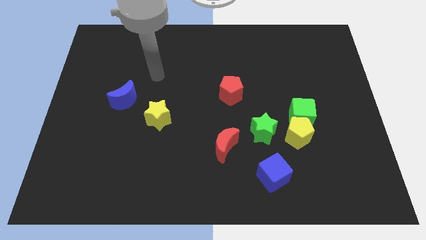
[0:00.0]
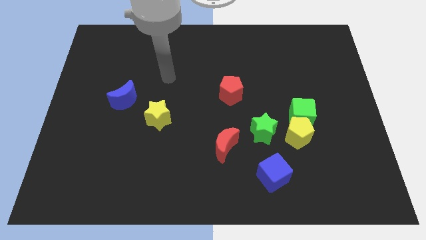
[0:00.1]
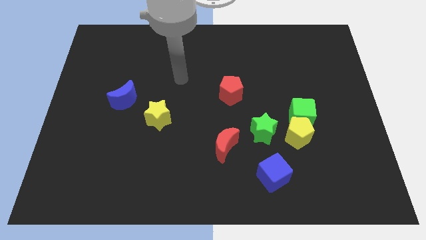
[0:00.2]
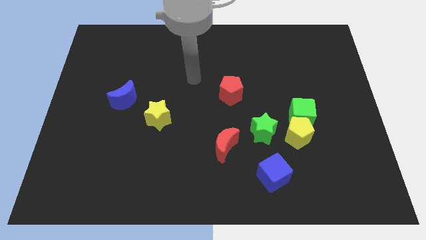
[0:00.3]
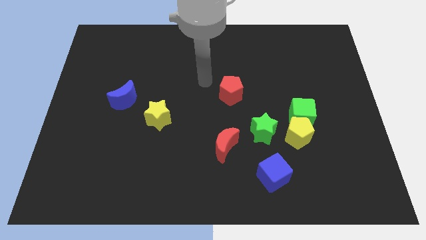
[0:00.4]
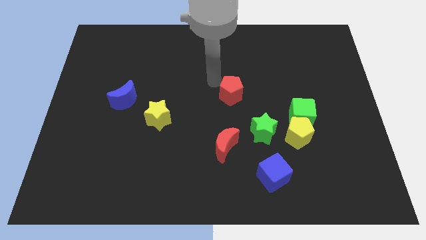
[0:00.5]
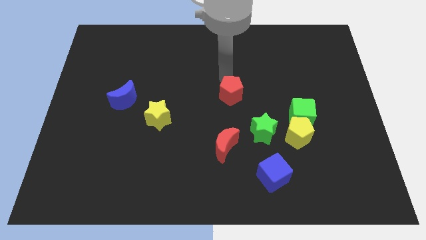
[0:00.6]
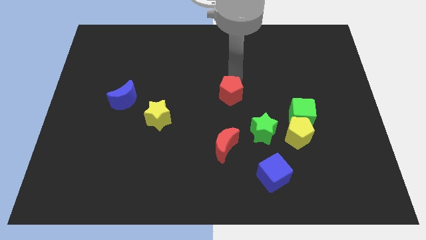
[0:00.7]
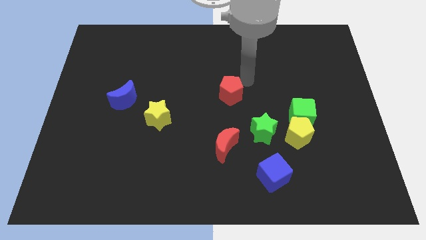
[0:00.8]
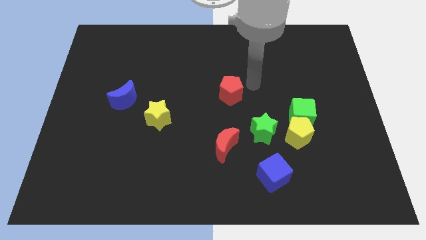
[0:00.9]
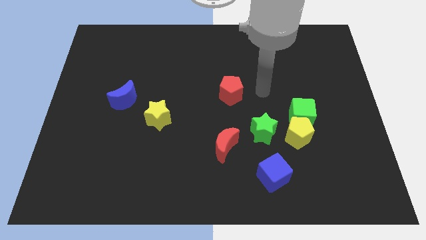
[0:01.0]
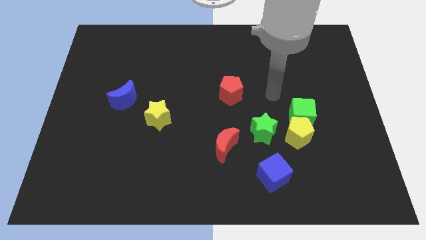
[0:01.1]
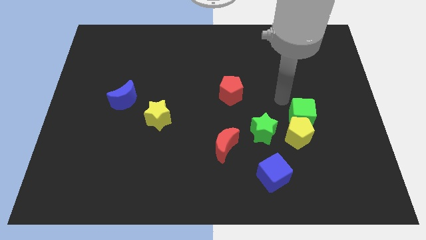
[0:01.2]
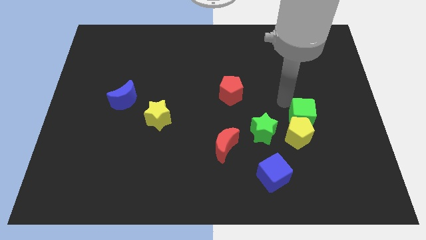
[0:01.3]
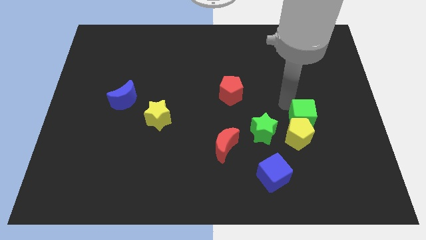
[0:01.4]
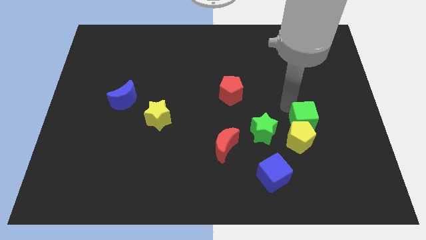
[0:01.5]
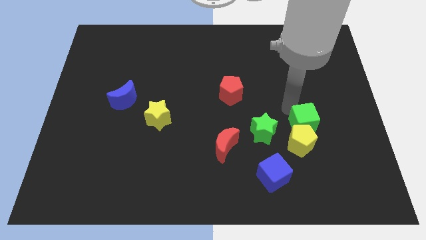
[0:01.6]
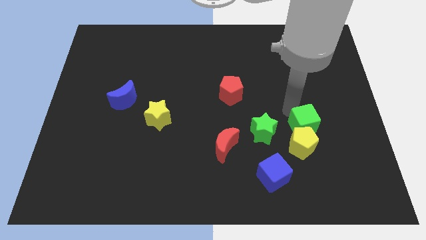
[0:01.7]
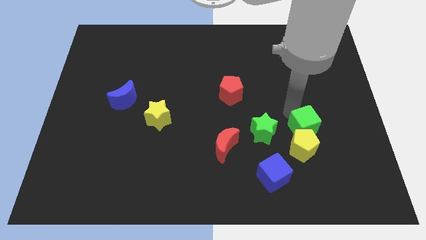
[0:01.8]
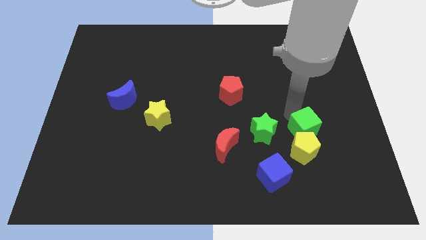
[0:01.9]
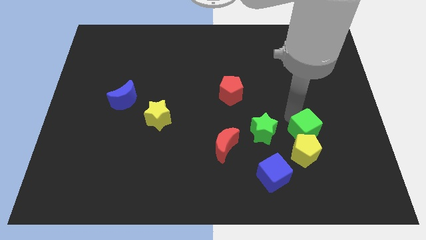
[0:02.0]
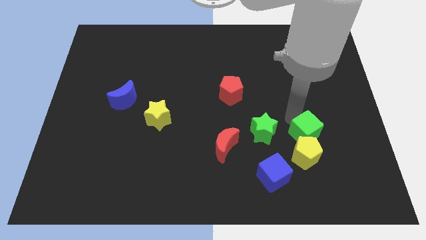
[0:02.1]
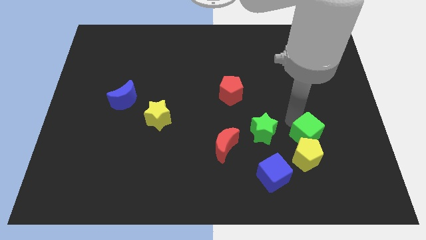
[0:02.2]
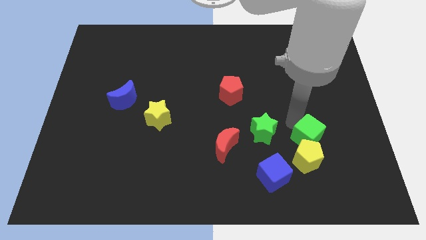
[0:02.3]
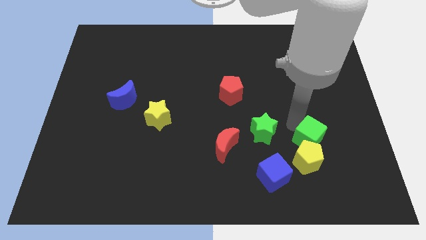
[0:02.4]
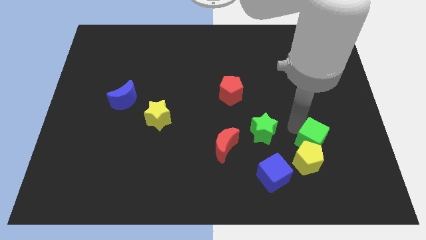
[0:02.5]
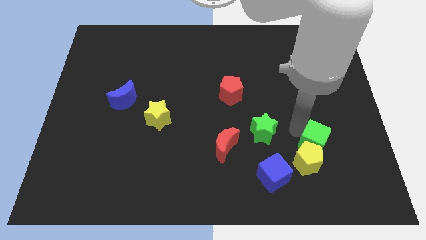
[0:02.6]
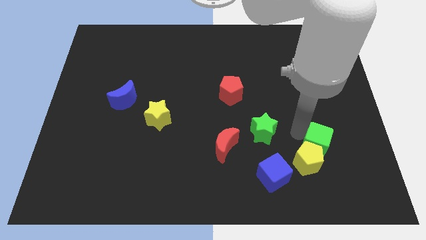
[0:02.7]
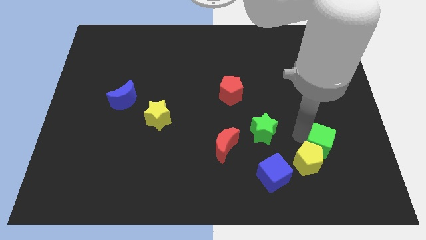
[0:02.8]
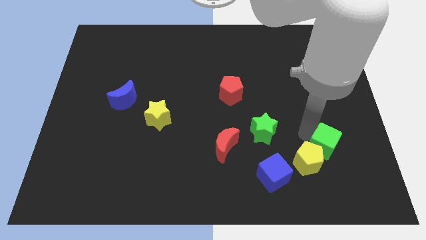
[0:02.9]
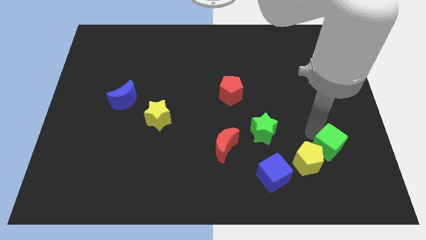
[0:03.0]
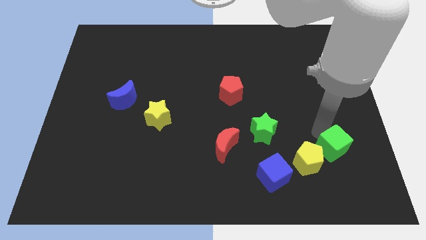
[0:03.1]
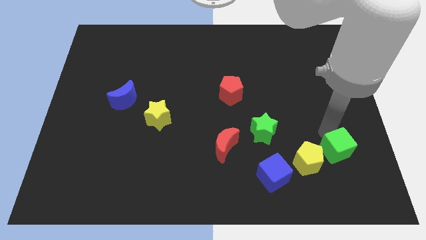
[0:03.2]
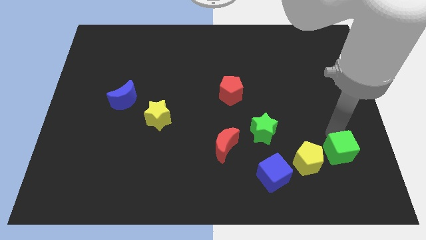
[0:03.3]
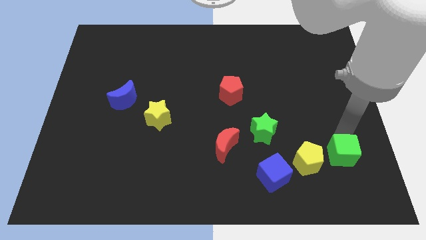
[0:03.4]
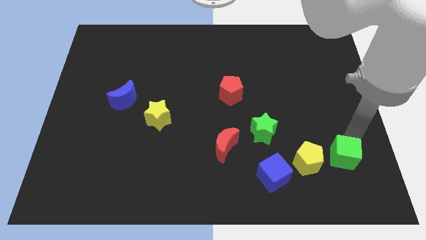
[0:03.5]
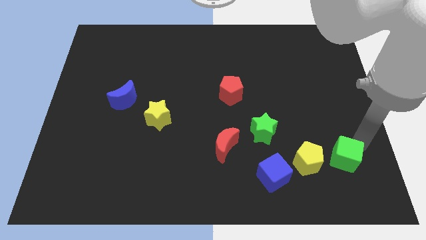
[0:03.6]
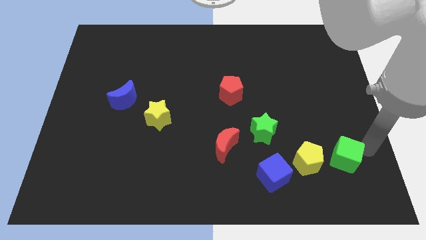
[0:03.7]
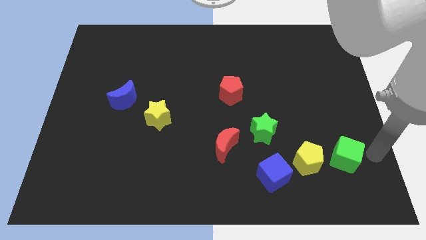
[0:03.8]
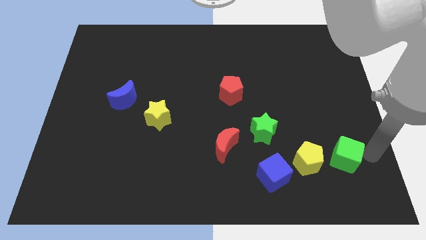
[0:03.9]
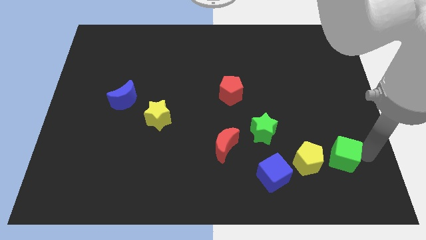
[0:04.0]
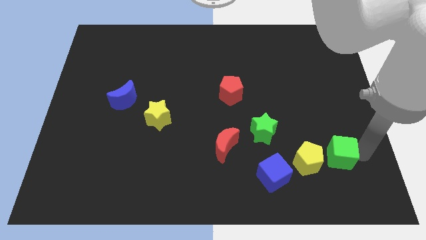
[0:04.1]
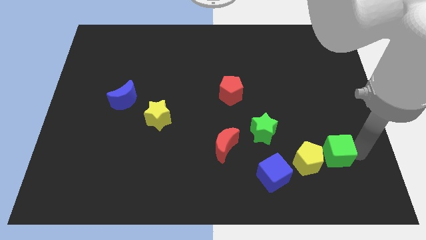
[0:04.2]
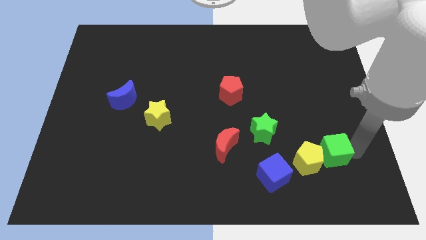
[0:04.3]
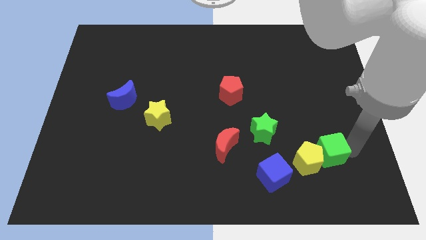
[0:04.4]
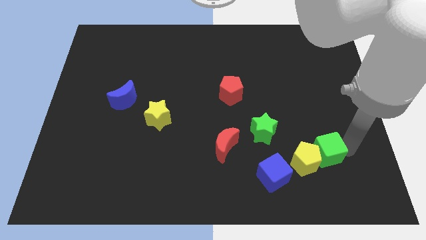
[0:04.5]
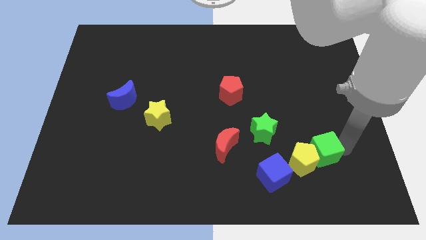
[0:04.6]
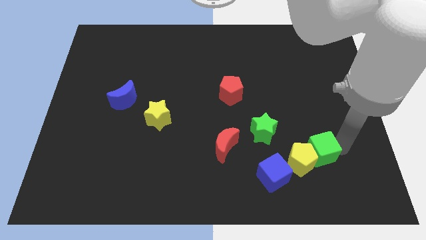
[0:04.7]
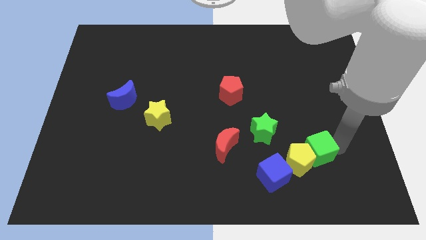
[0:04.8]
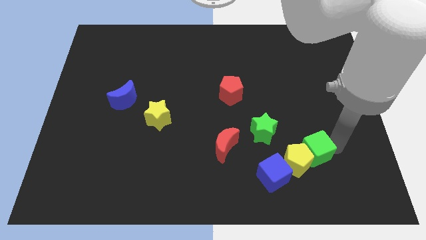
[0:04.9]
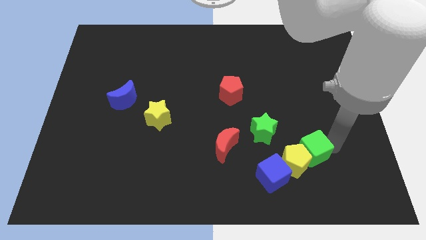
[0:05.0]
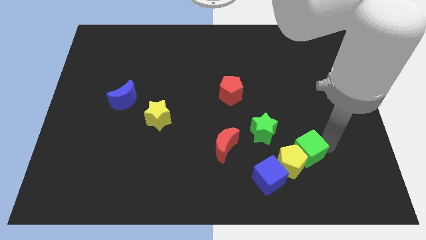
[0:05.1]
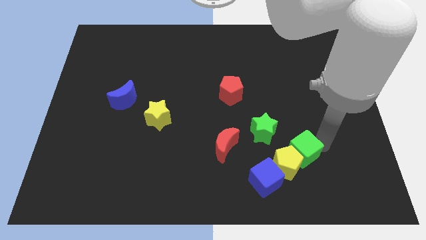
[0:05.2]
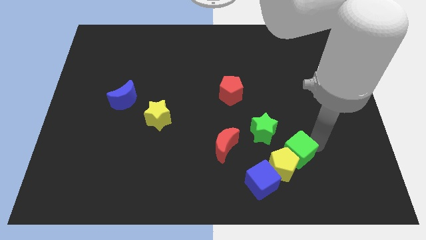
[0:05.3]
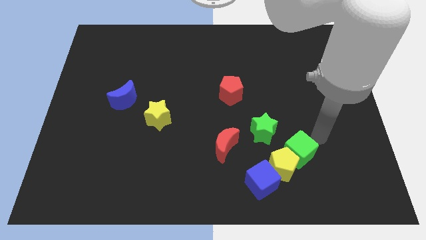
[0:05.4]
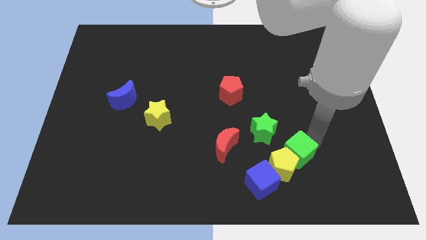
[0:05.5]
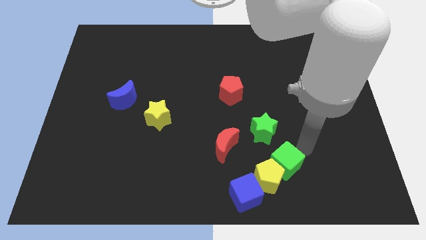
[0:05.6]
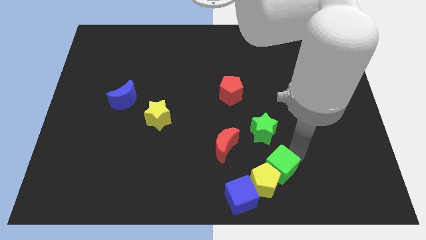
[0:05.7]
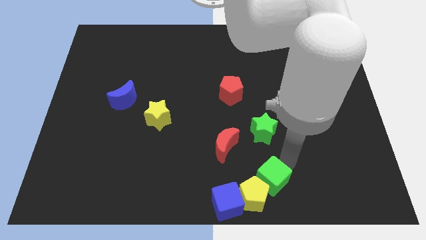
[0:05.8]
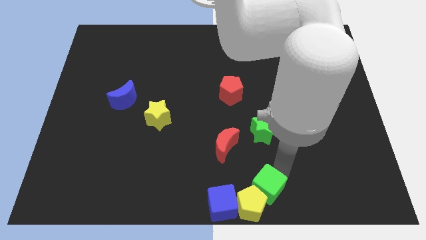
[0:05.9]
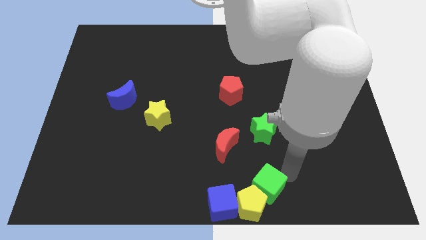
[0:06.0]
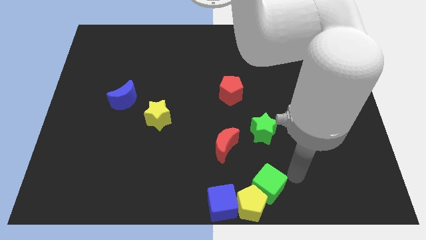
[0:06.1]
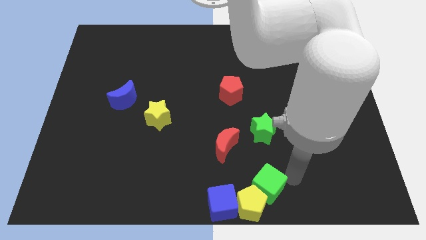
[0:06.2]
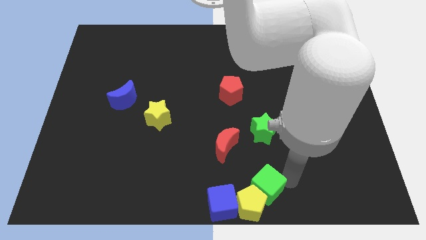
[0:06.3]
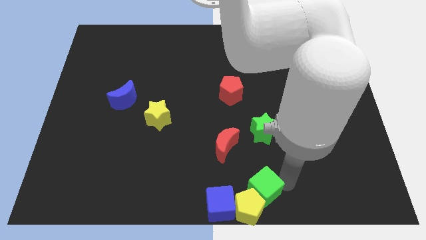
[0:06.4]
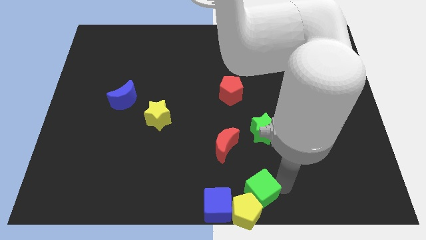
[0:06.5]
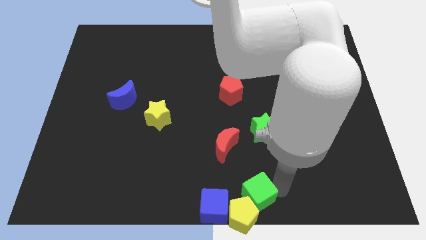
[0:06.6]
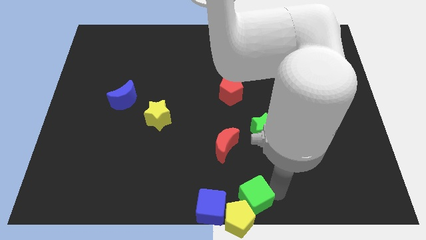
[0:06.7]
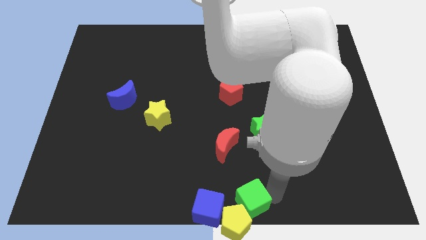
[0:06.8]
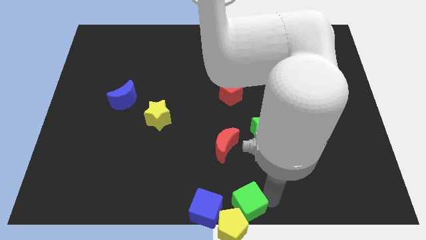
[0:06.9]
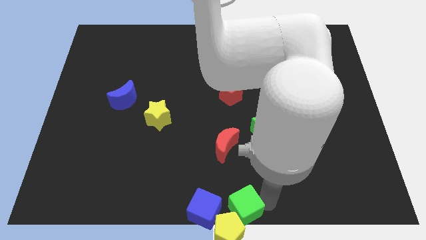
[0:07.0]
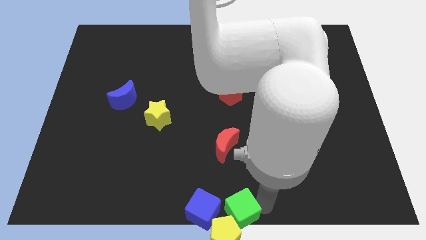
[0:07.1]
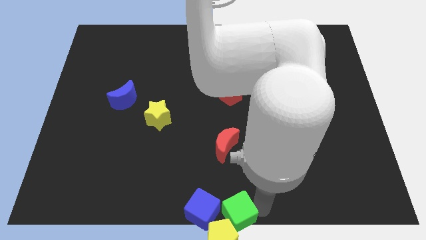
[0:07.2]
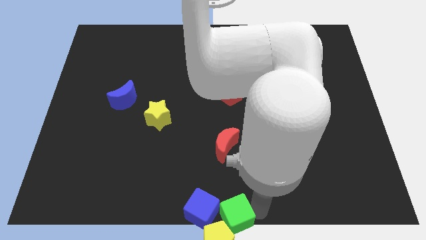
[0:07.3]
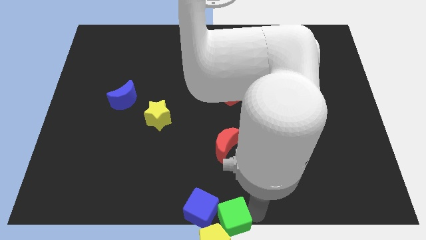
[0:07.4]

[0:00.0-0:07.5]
push the green cube close to the blue cube

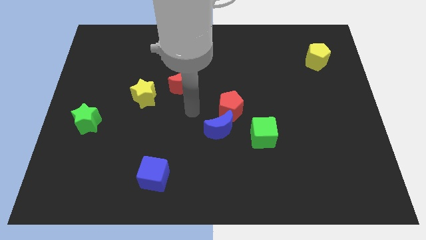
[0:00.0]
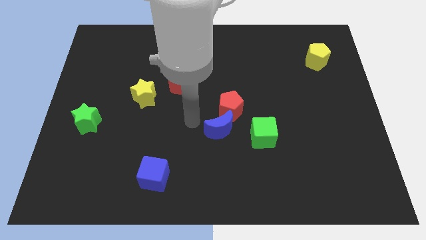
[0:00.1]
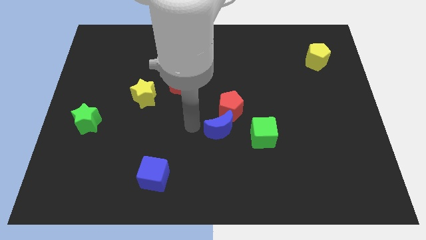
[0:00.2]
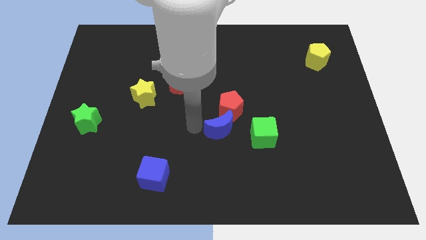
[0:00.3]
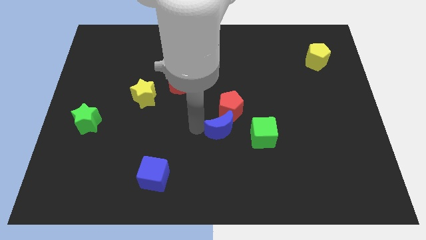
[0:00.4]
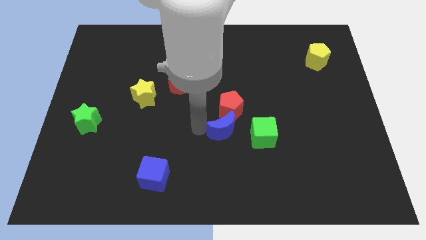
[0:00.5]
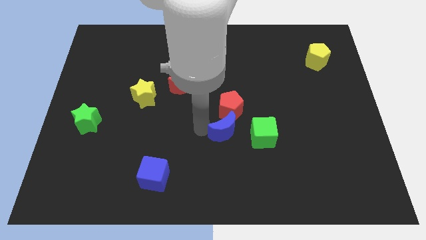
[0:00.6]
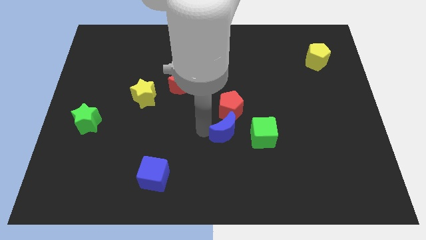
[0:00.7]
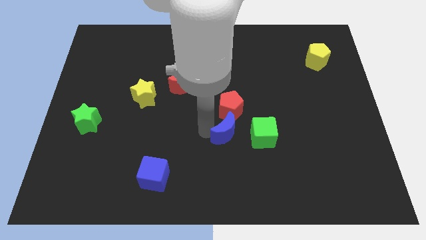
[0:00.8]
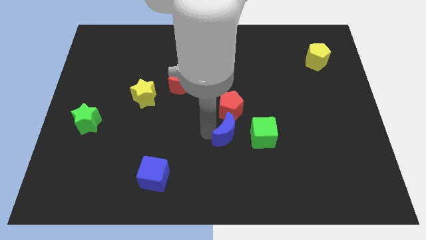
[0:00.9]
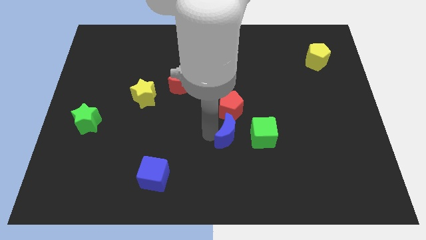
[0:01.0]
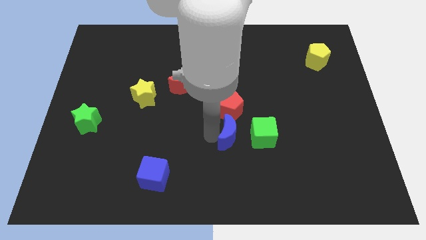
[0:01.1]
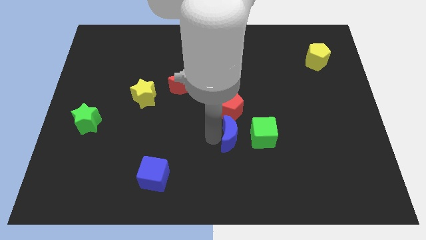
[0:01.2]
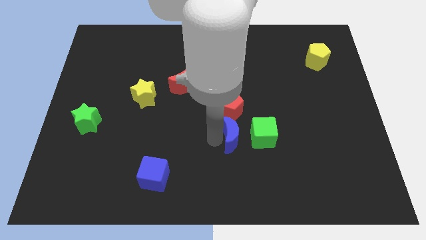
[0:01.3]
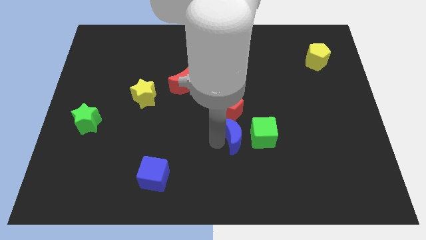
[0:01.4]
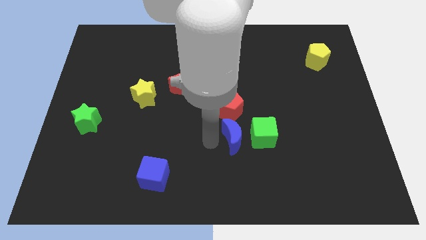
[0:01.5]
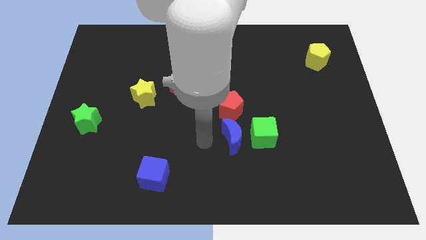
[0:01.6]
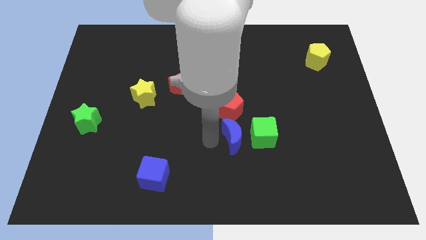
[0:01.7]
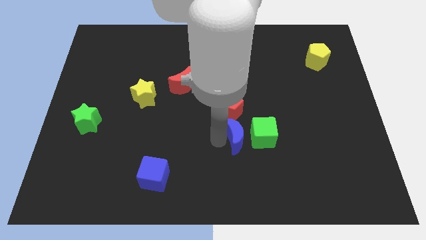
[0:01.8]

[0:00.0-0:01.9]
put the blue moon towards the green cube
